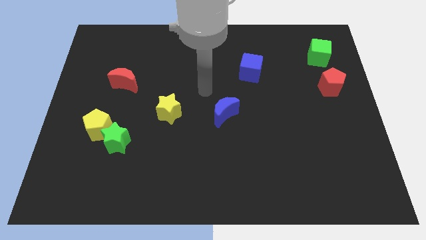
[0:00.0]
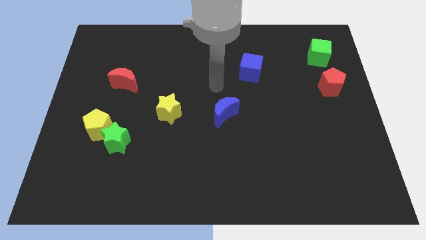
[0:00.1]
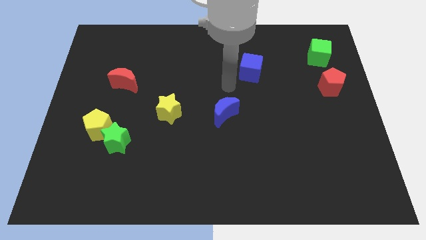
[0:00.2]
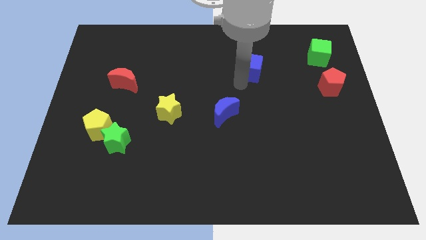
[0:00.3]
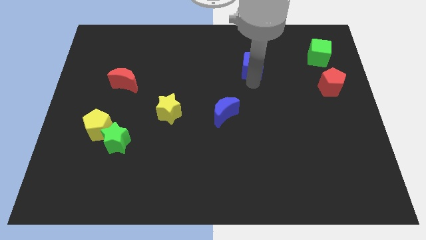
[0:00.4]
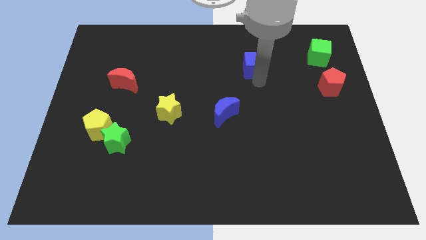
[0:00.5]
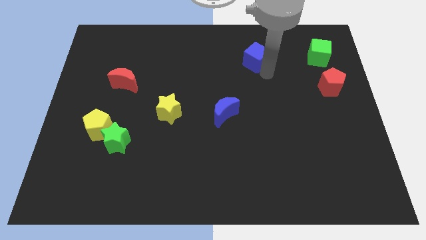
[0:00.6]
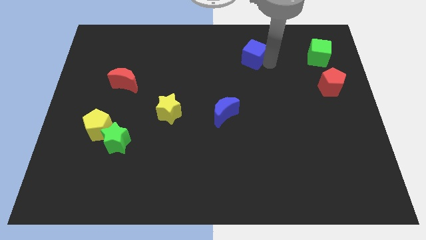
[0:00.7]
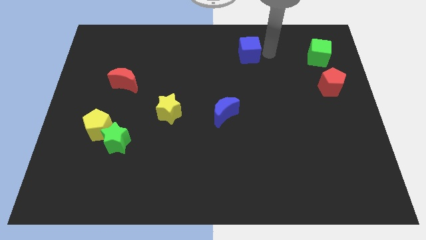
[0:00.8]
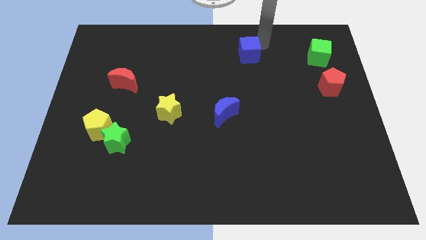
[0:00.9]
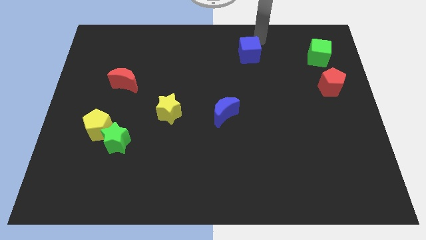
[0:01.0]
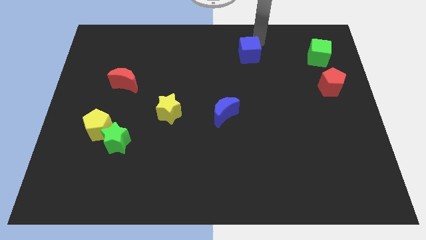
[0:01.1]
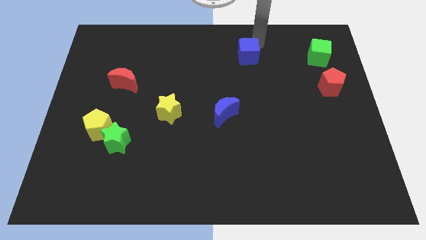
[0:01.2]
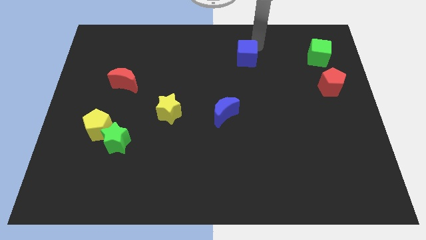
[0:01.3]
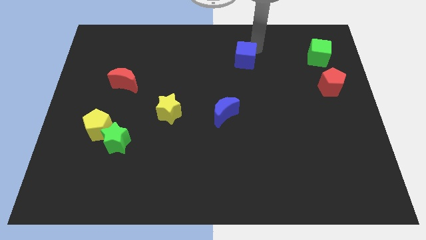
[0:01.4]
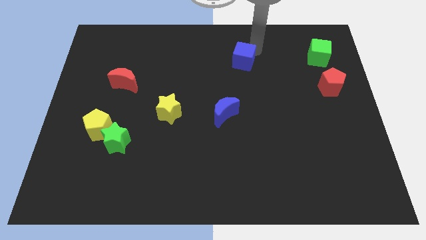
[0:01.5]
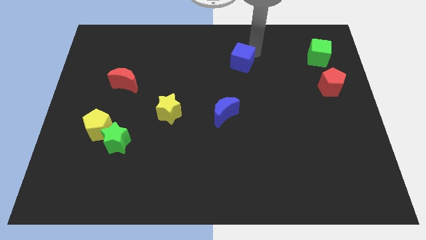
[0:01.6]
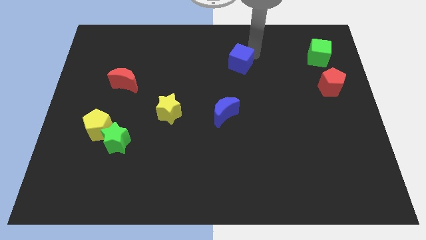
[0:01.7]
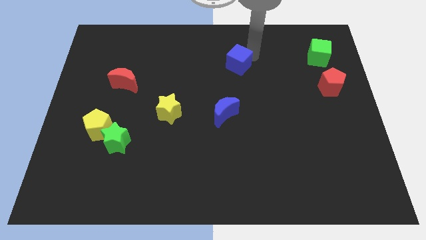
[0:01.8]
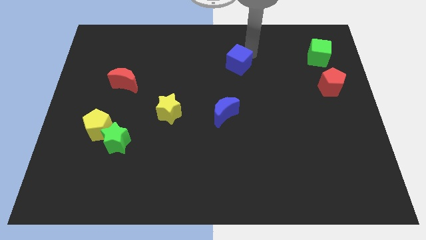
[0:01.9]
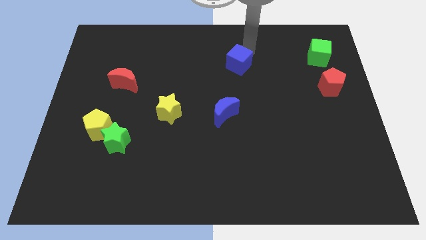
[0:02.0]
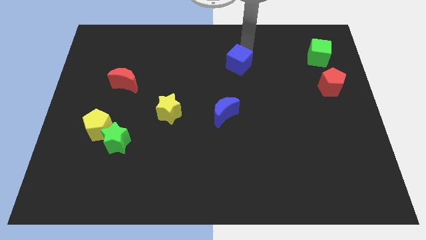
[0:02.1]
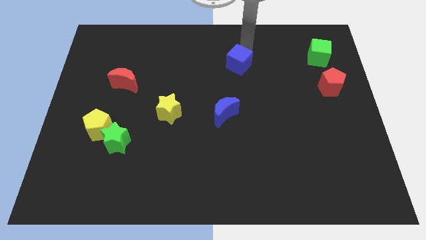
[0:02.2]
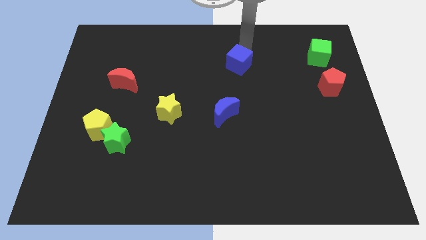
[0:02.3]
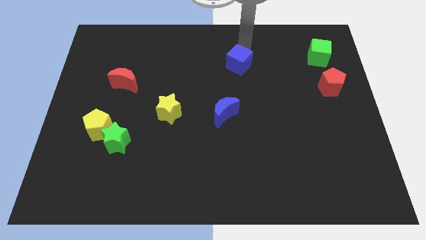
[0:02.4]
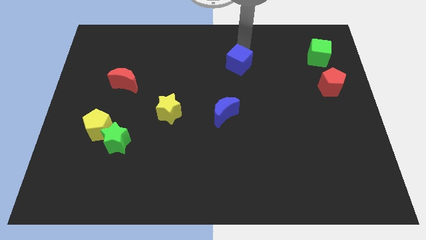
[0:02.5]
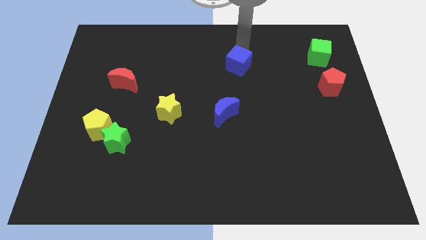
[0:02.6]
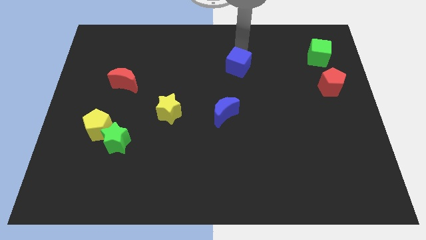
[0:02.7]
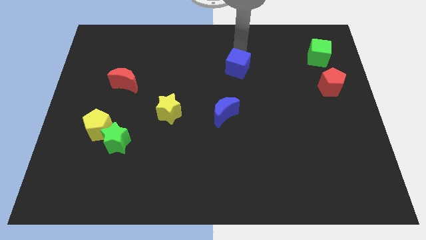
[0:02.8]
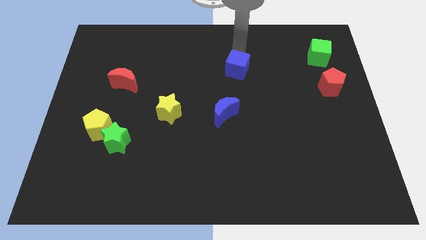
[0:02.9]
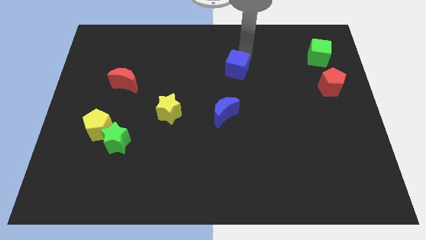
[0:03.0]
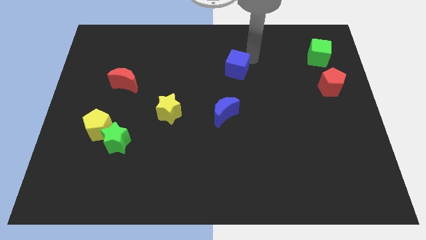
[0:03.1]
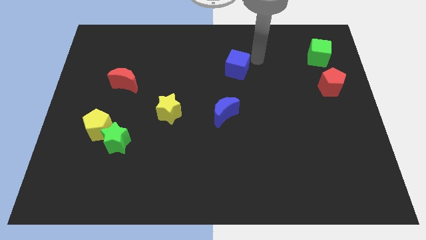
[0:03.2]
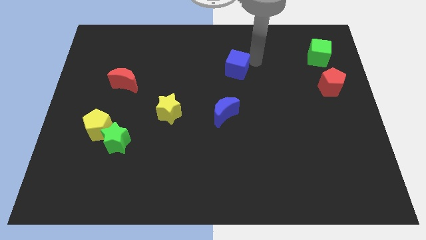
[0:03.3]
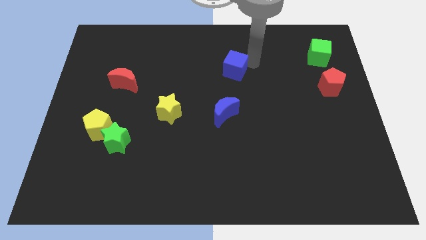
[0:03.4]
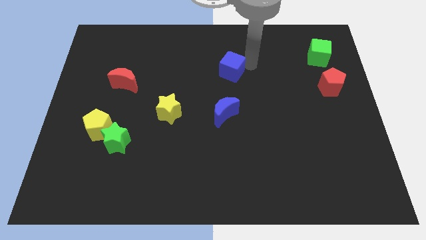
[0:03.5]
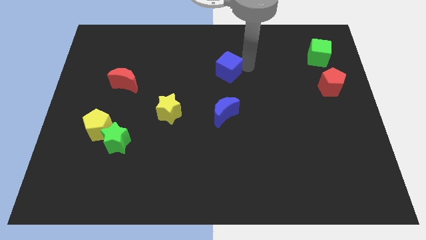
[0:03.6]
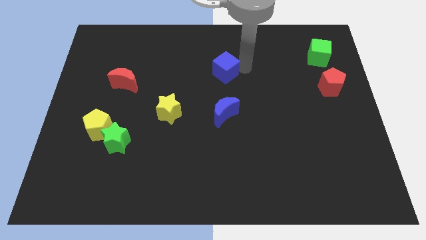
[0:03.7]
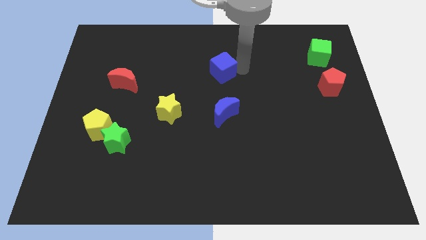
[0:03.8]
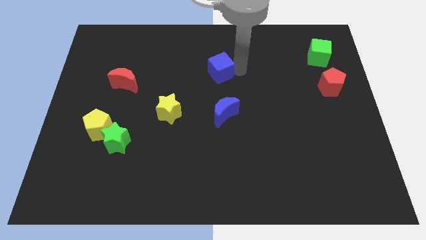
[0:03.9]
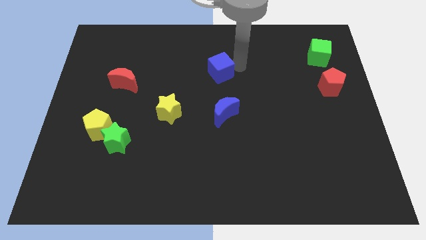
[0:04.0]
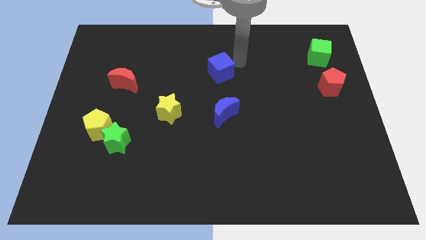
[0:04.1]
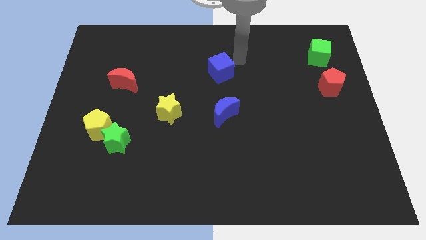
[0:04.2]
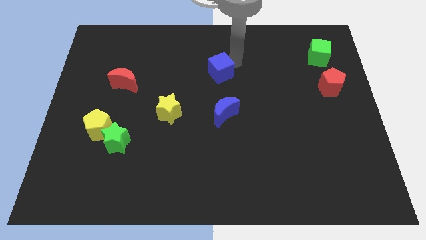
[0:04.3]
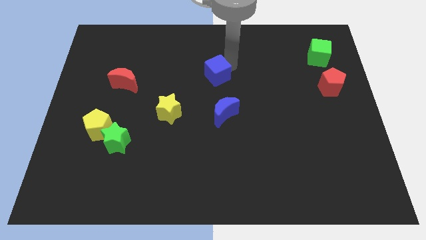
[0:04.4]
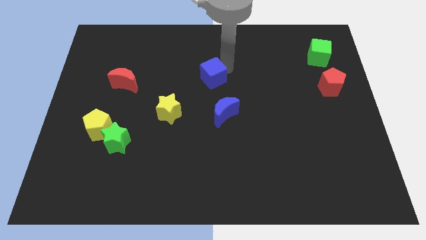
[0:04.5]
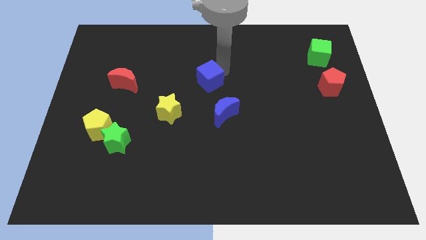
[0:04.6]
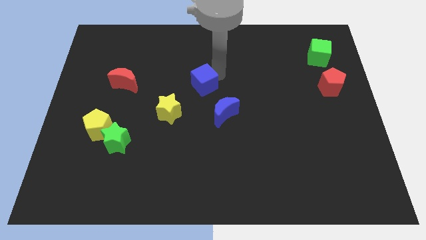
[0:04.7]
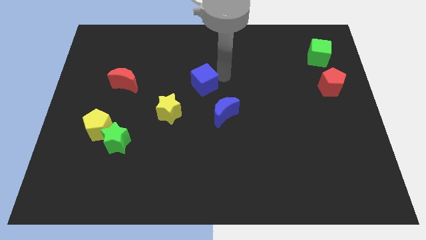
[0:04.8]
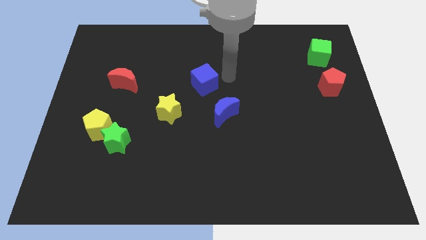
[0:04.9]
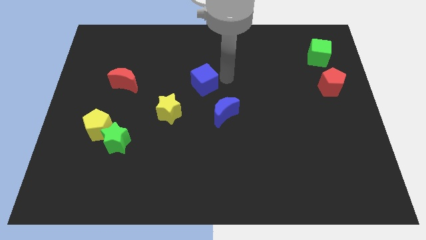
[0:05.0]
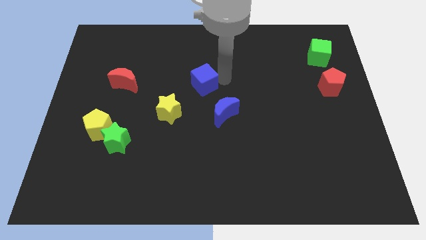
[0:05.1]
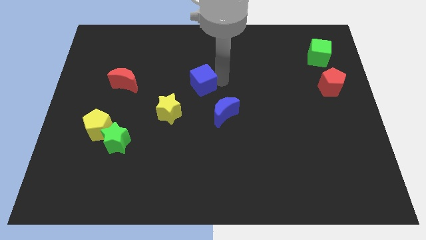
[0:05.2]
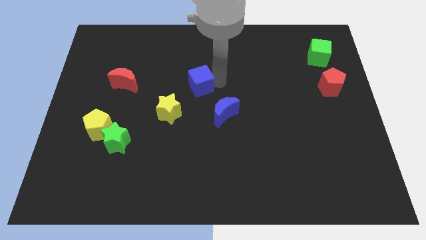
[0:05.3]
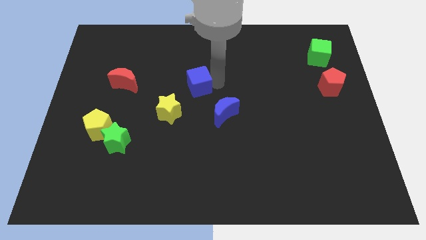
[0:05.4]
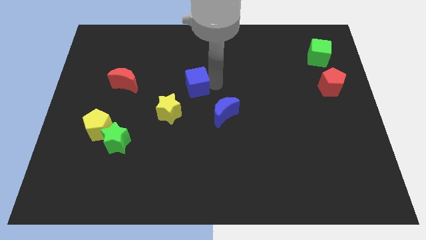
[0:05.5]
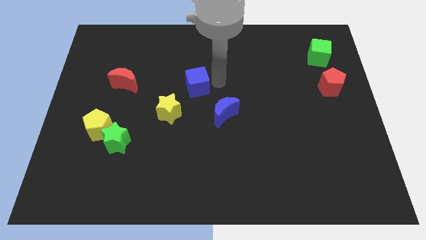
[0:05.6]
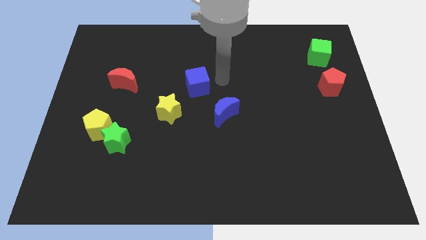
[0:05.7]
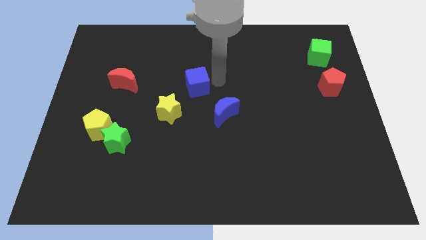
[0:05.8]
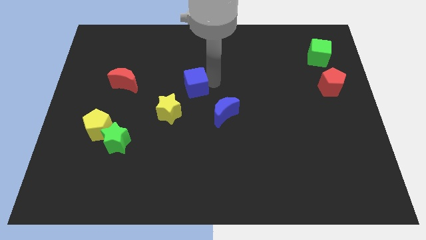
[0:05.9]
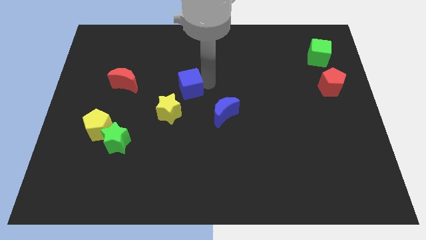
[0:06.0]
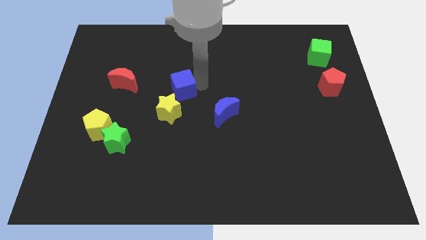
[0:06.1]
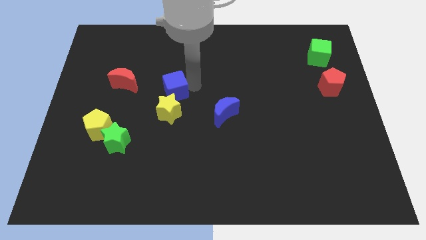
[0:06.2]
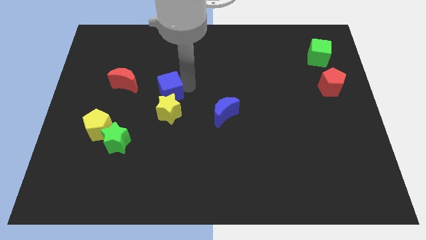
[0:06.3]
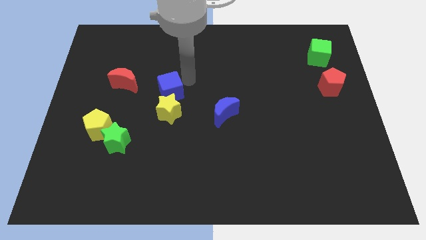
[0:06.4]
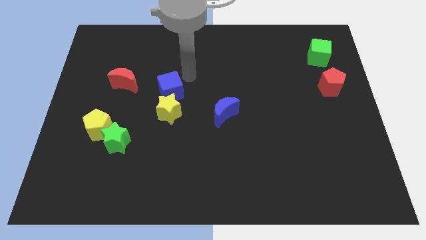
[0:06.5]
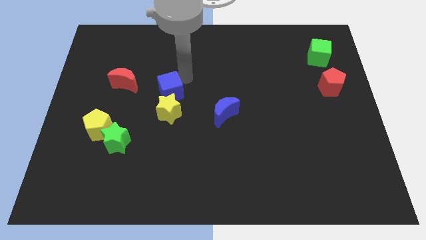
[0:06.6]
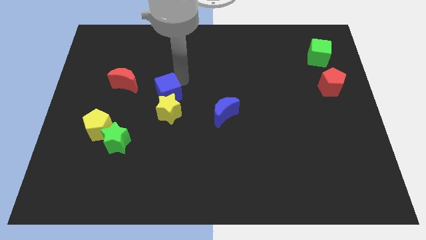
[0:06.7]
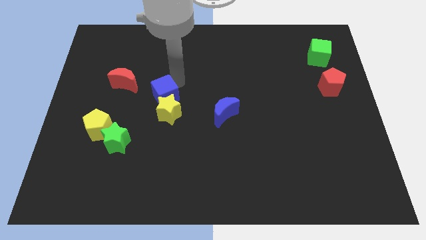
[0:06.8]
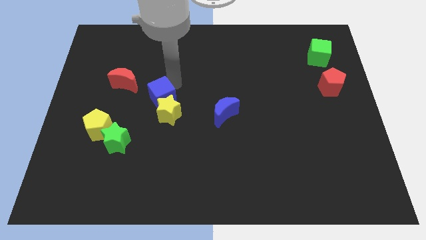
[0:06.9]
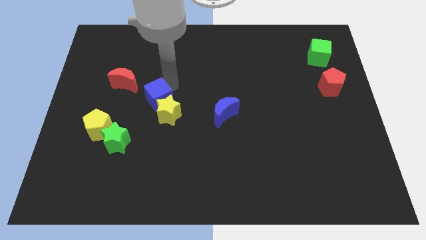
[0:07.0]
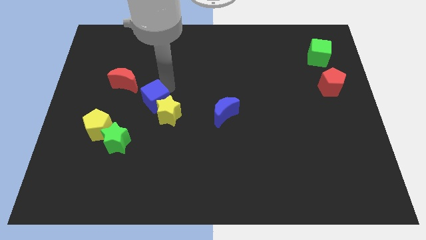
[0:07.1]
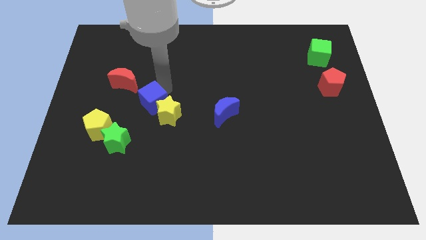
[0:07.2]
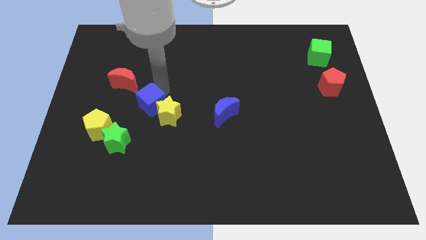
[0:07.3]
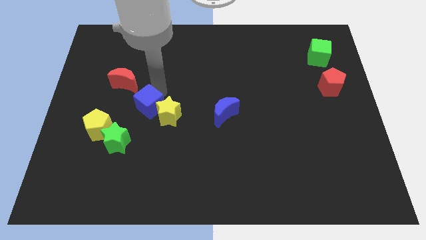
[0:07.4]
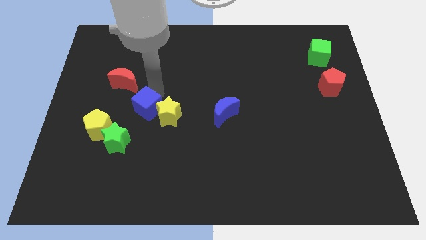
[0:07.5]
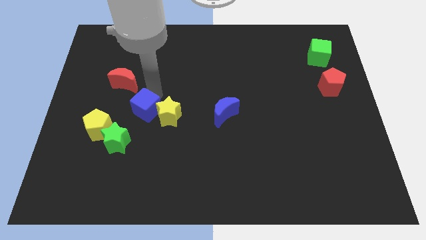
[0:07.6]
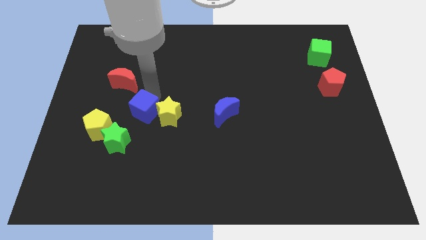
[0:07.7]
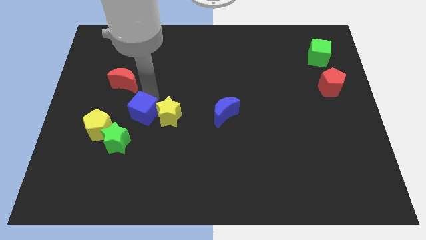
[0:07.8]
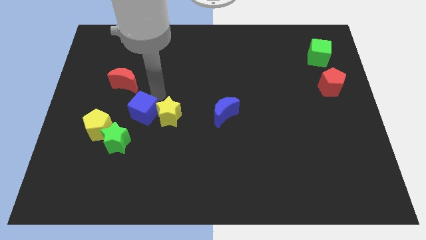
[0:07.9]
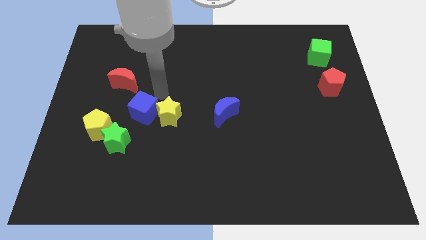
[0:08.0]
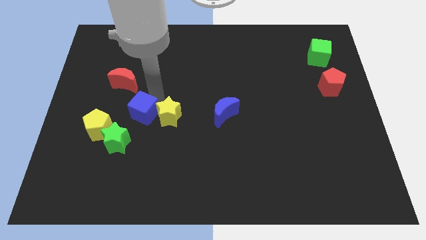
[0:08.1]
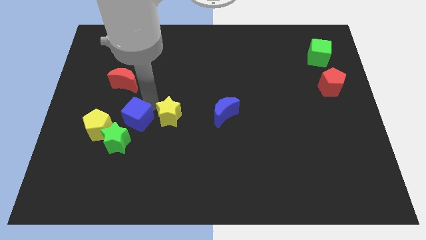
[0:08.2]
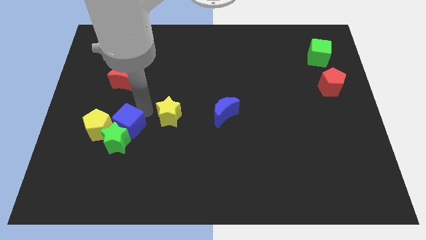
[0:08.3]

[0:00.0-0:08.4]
slide the blue cube close to the green star
